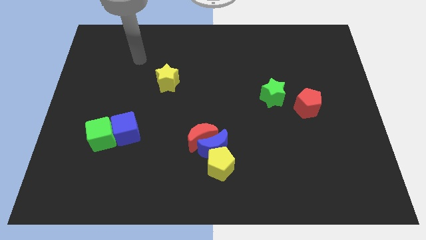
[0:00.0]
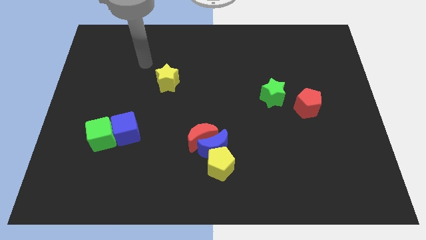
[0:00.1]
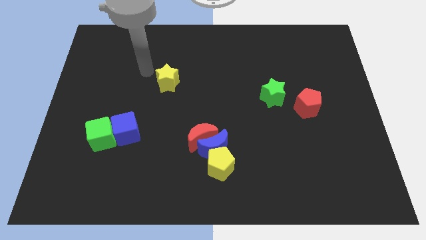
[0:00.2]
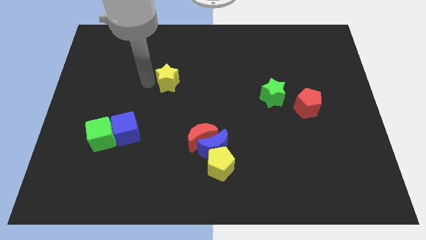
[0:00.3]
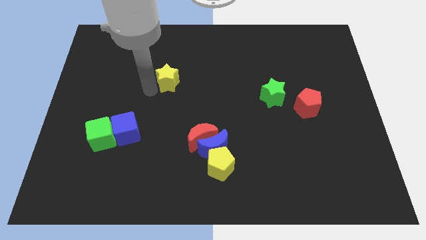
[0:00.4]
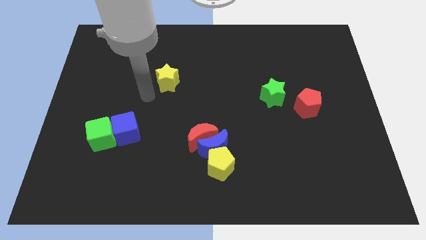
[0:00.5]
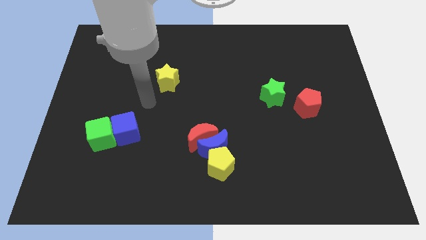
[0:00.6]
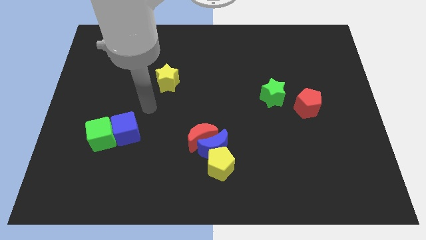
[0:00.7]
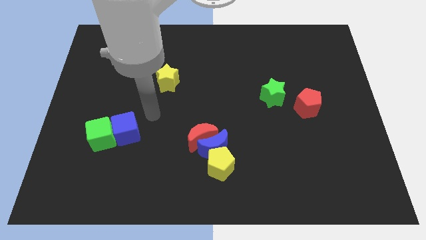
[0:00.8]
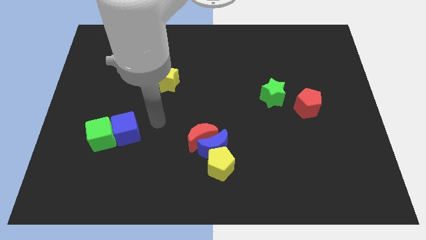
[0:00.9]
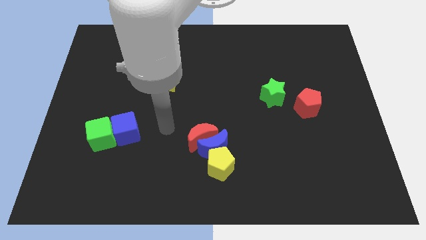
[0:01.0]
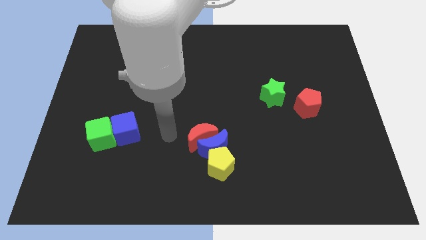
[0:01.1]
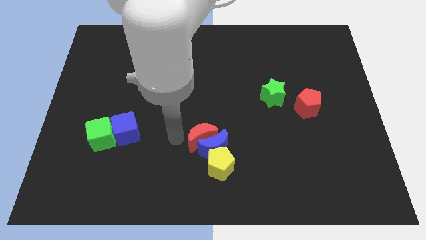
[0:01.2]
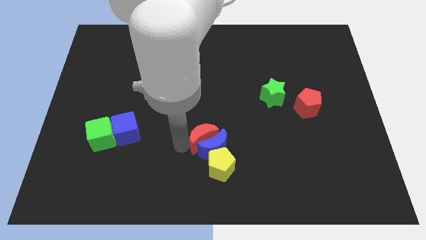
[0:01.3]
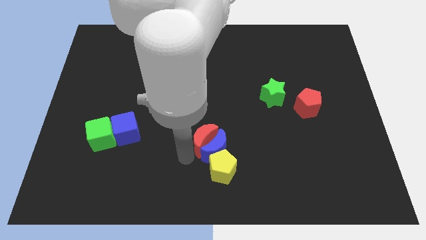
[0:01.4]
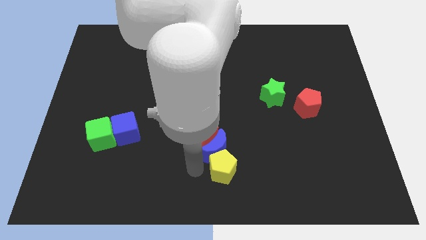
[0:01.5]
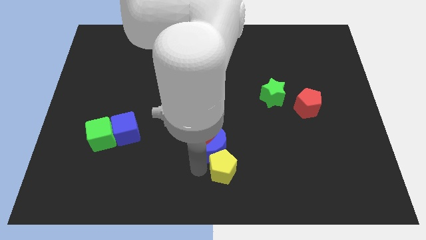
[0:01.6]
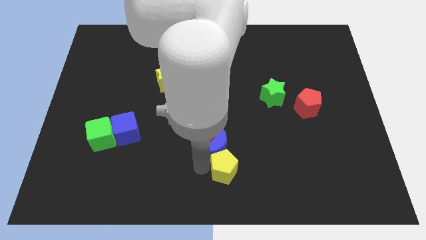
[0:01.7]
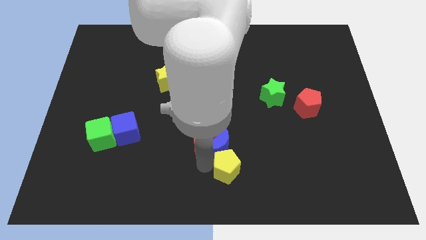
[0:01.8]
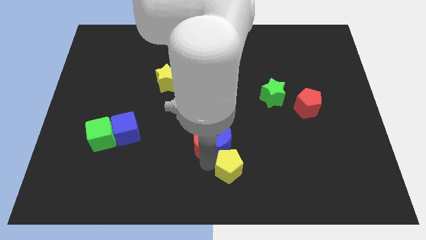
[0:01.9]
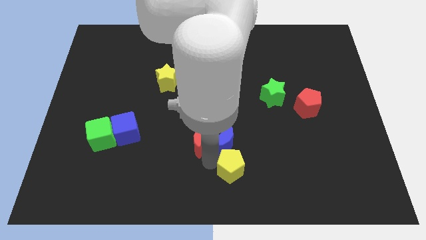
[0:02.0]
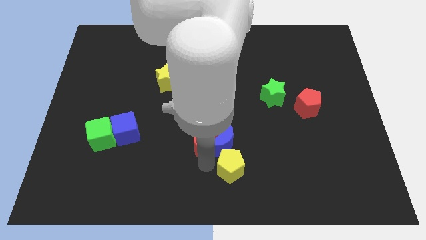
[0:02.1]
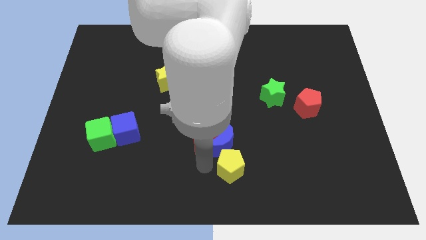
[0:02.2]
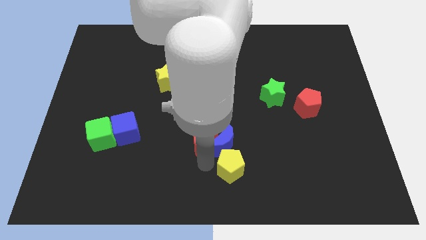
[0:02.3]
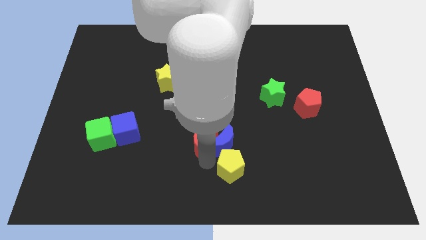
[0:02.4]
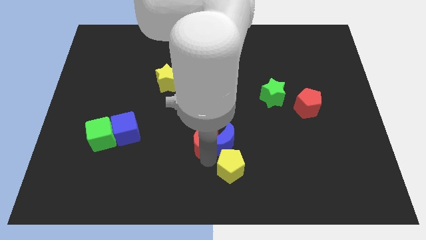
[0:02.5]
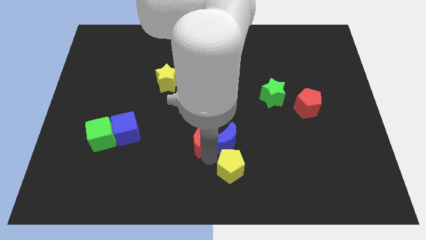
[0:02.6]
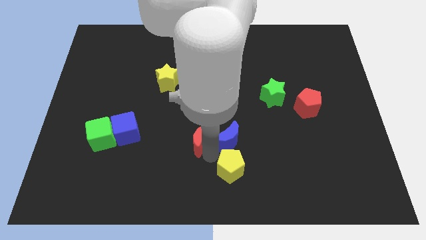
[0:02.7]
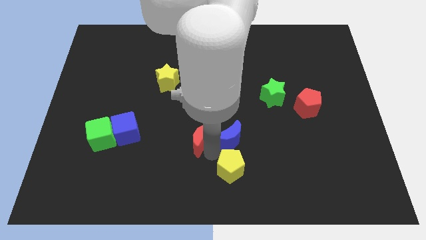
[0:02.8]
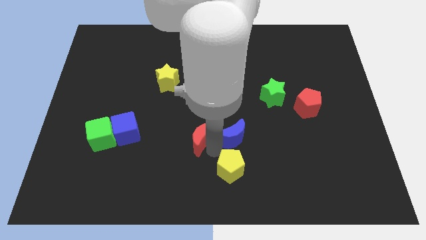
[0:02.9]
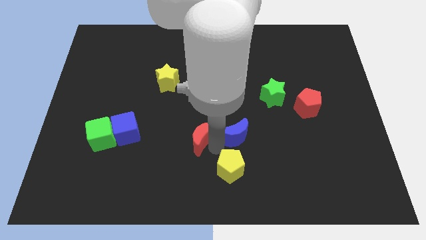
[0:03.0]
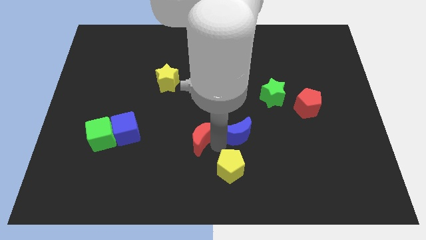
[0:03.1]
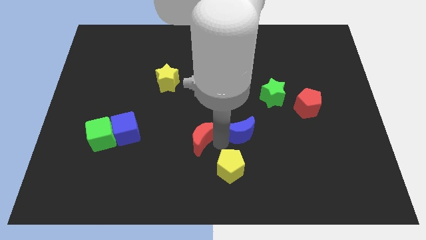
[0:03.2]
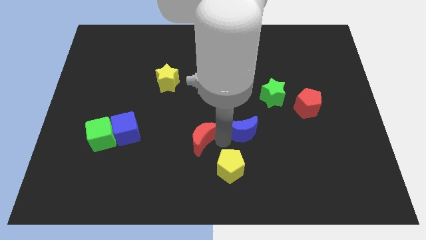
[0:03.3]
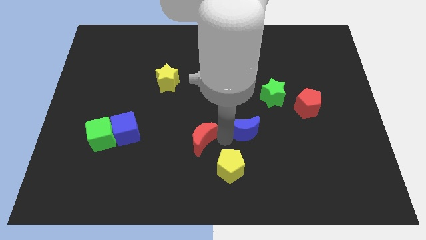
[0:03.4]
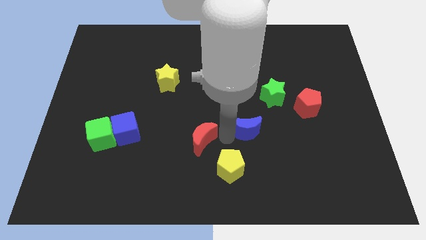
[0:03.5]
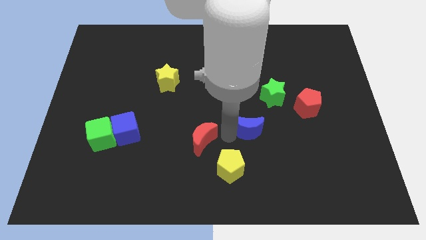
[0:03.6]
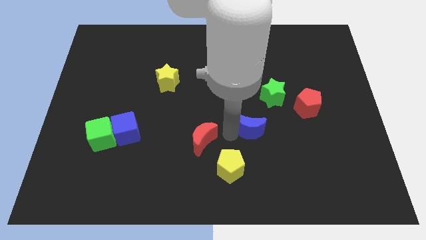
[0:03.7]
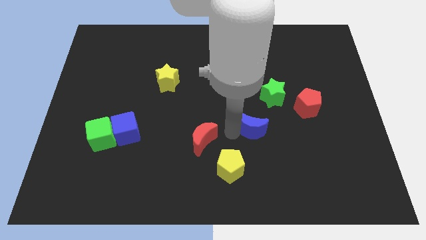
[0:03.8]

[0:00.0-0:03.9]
separate the blue moon from the red moon and yellow pentagon

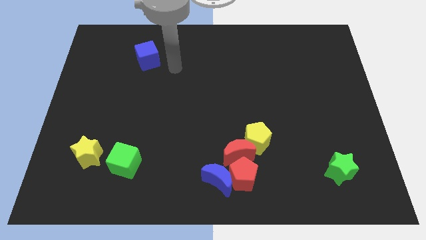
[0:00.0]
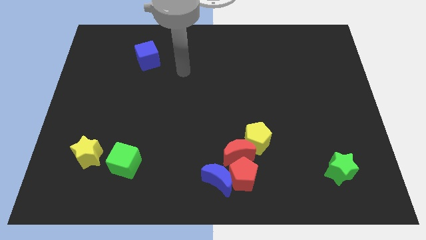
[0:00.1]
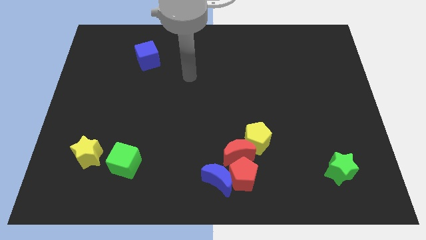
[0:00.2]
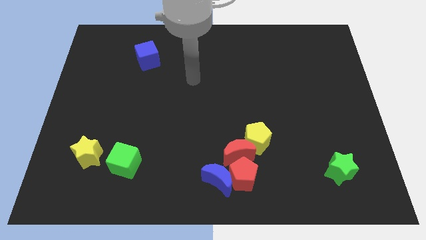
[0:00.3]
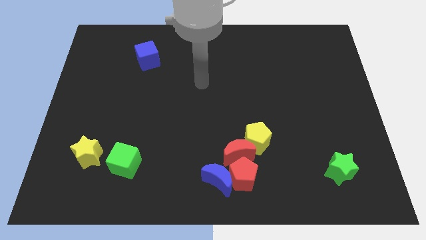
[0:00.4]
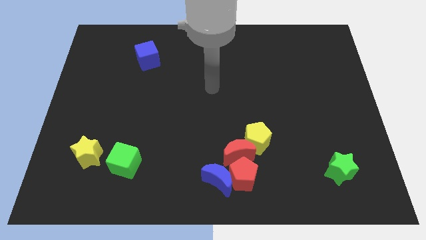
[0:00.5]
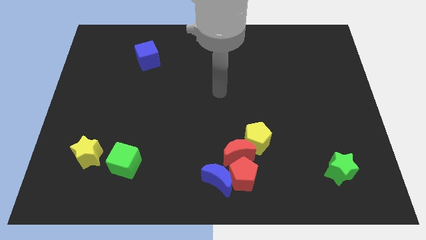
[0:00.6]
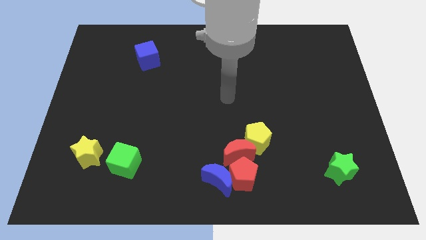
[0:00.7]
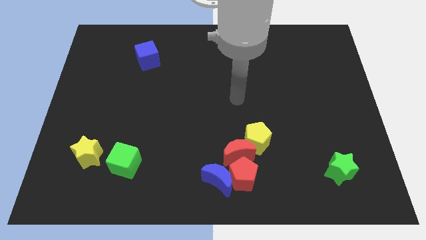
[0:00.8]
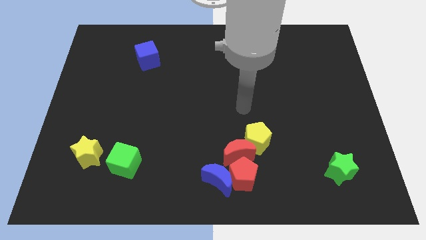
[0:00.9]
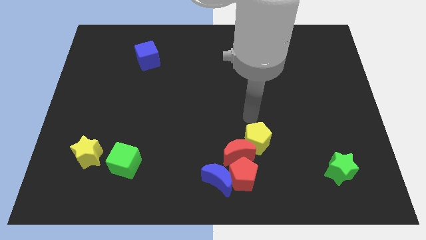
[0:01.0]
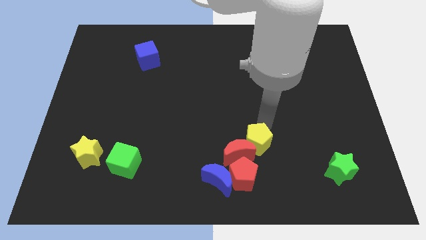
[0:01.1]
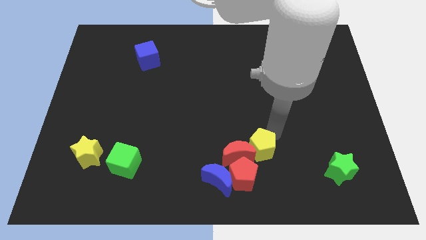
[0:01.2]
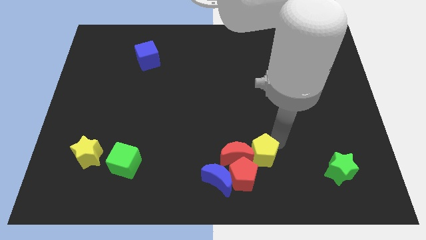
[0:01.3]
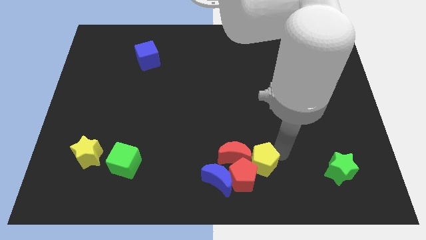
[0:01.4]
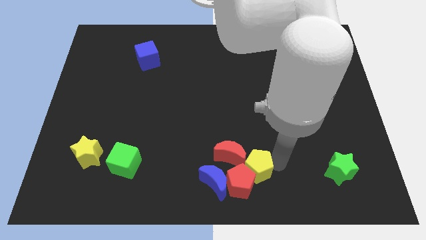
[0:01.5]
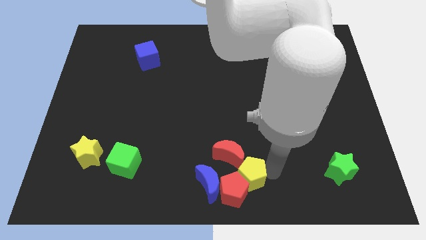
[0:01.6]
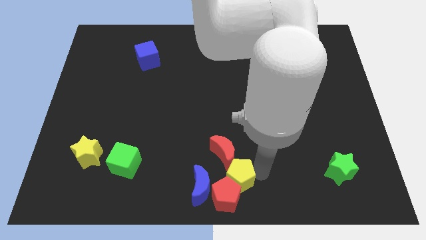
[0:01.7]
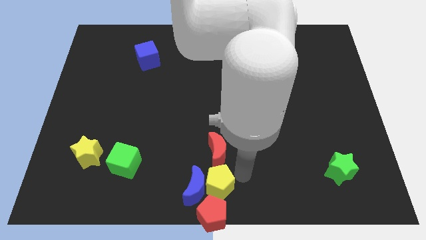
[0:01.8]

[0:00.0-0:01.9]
move the red moon away from the red pentagon, yellow pentagon, and blue moon

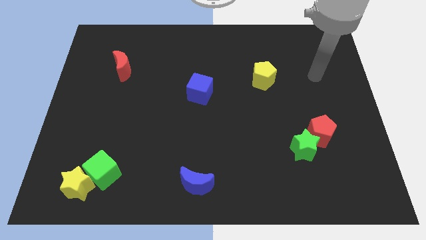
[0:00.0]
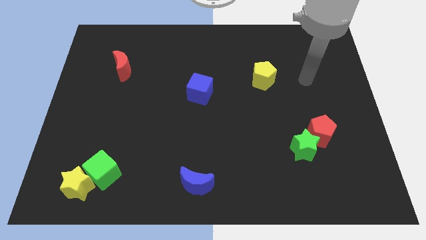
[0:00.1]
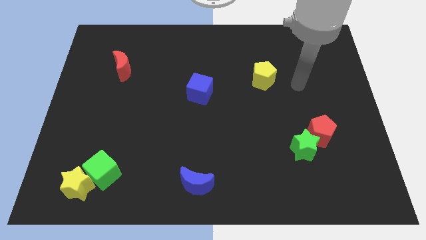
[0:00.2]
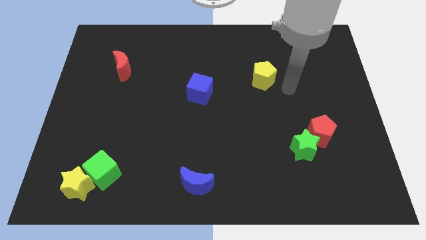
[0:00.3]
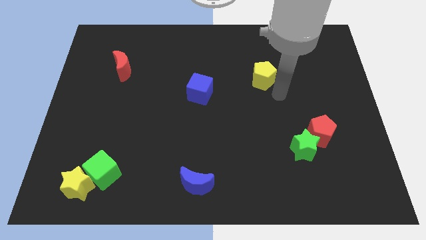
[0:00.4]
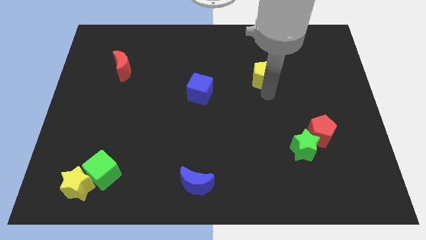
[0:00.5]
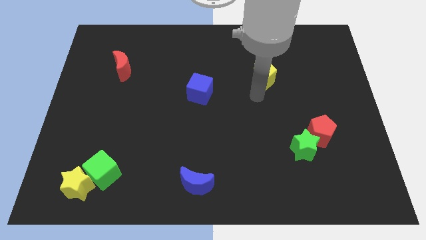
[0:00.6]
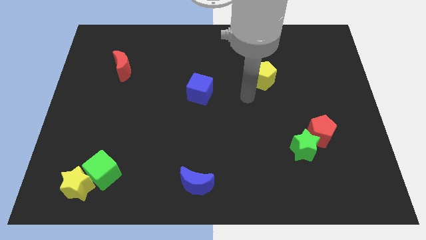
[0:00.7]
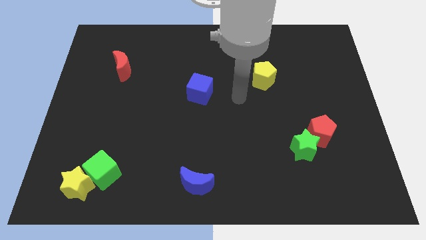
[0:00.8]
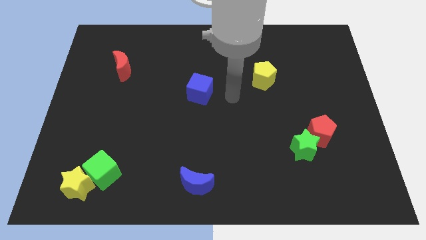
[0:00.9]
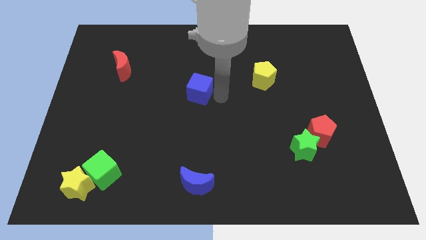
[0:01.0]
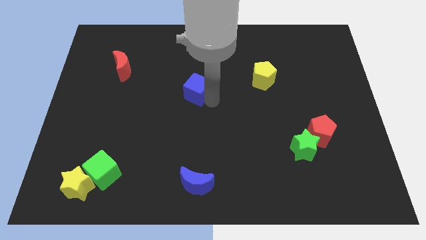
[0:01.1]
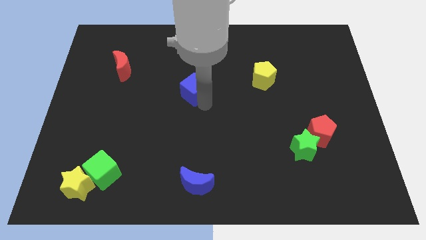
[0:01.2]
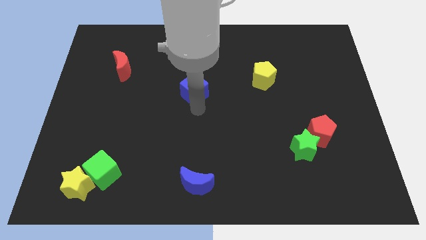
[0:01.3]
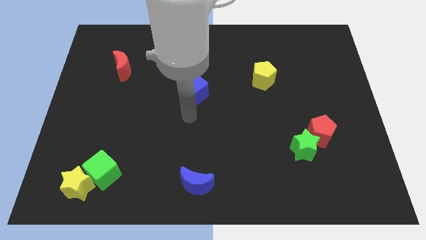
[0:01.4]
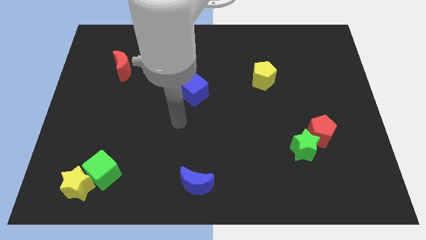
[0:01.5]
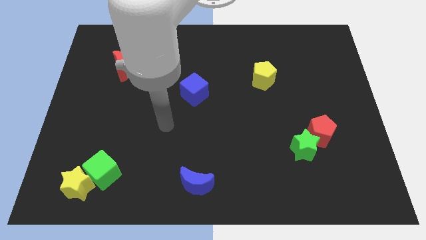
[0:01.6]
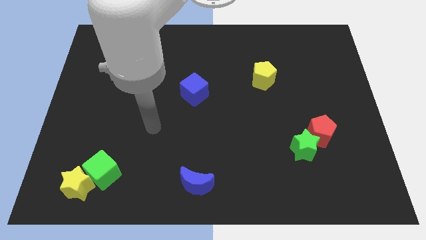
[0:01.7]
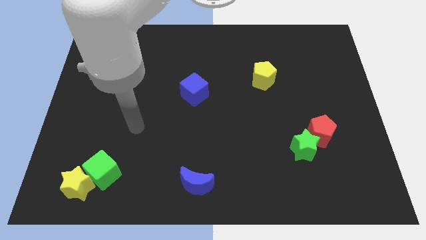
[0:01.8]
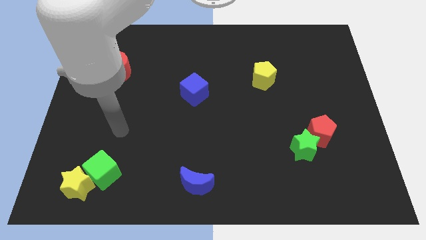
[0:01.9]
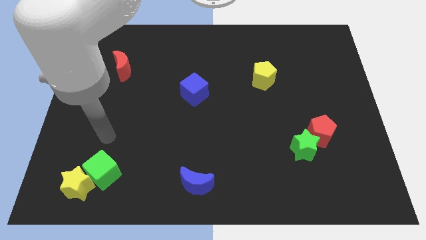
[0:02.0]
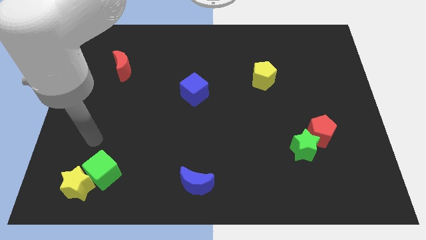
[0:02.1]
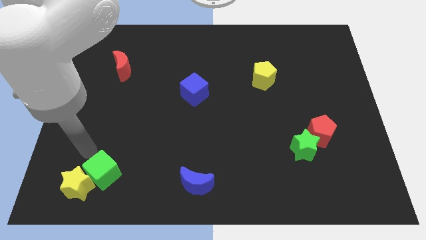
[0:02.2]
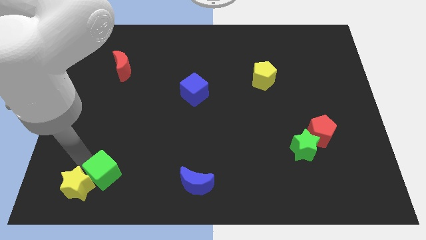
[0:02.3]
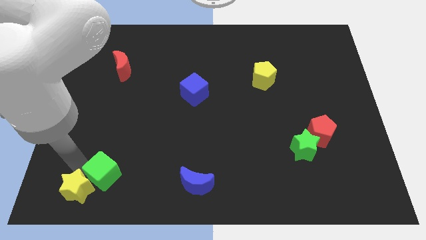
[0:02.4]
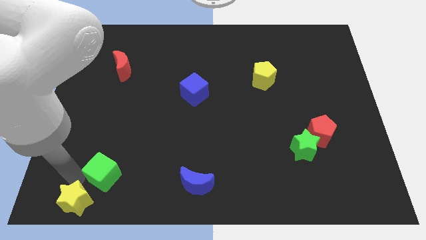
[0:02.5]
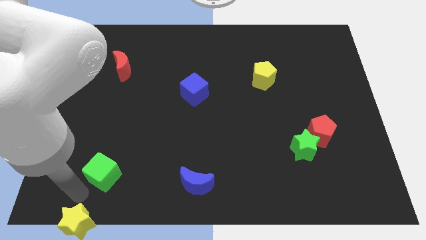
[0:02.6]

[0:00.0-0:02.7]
move the green cube away from the yellow star
